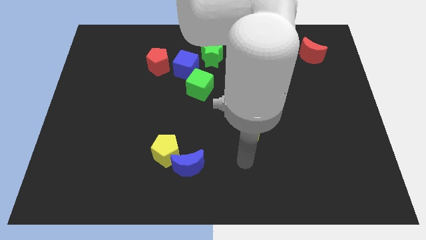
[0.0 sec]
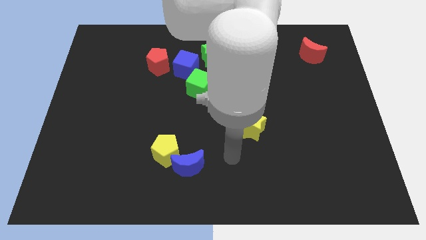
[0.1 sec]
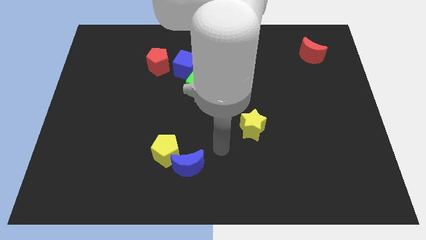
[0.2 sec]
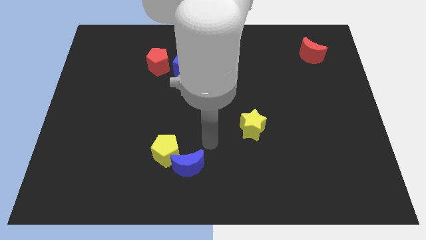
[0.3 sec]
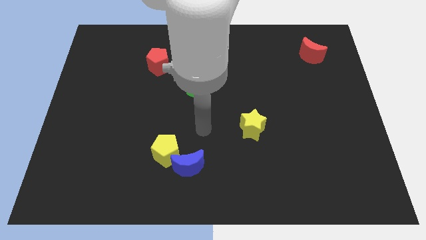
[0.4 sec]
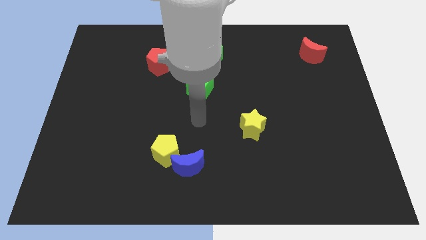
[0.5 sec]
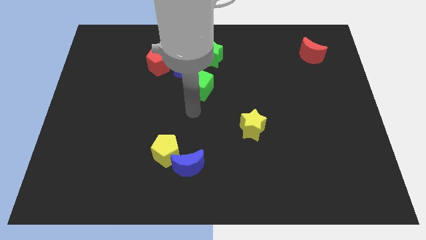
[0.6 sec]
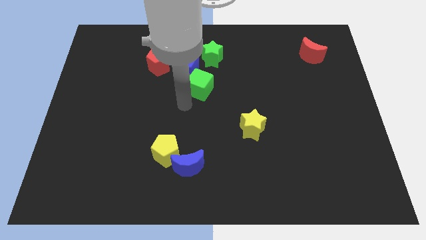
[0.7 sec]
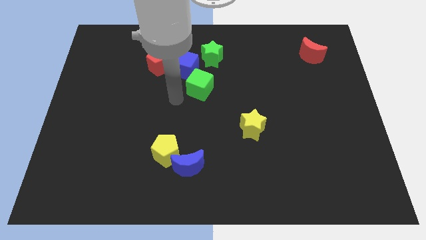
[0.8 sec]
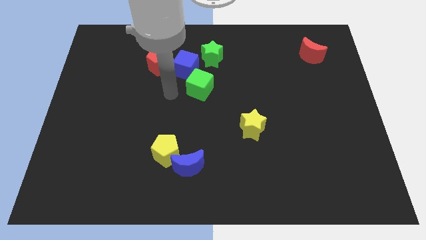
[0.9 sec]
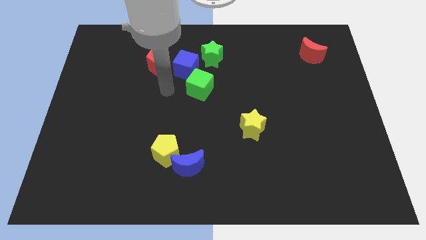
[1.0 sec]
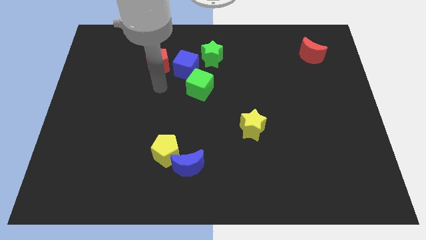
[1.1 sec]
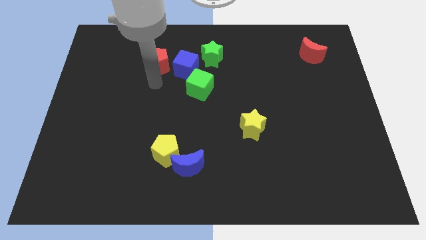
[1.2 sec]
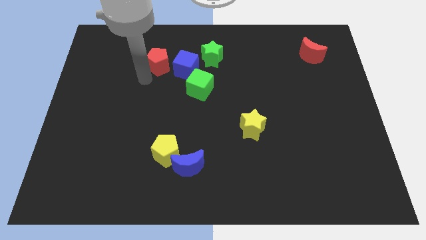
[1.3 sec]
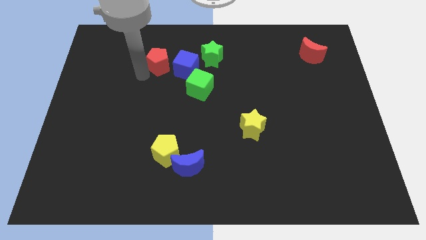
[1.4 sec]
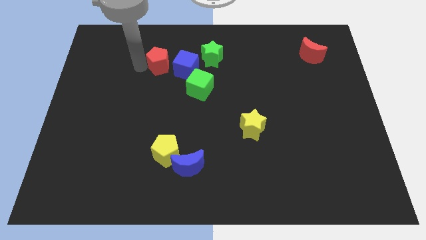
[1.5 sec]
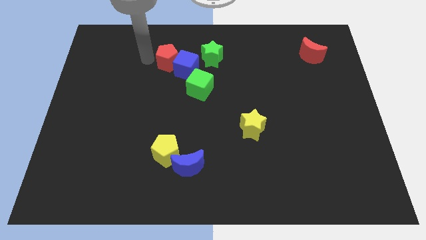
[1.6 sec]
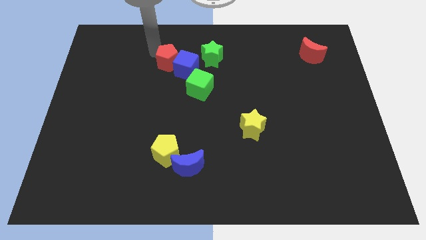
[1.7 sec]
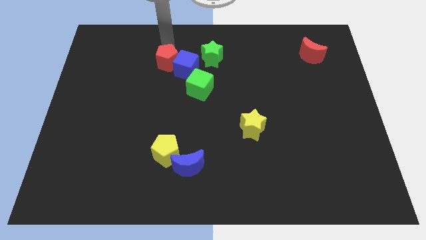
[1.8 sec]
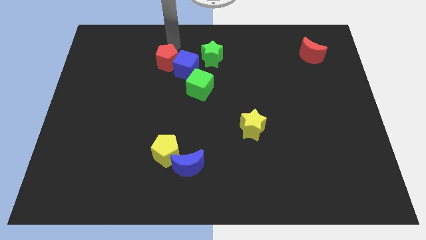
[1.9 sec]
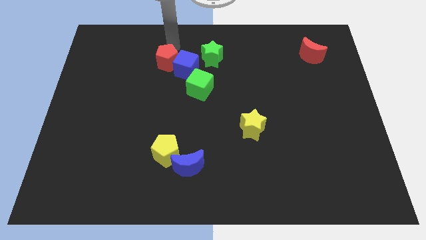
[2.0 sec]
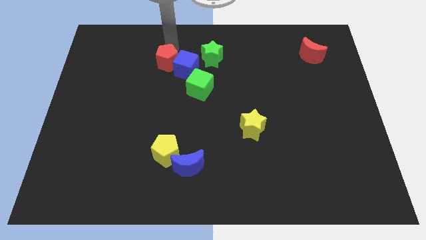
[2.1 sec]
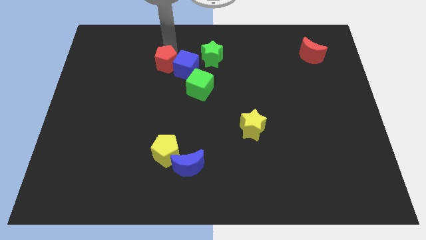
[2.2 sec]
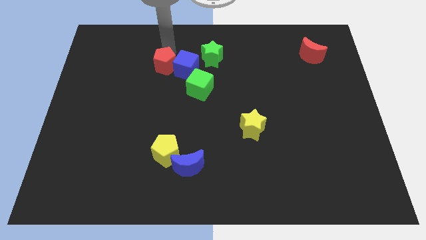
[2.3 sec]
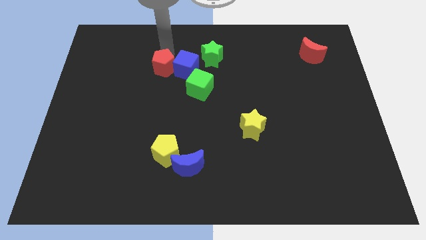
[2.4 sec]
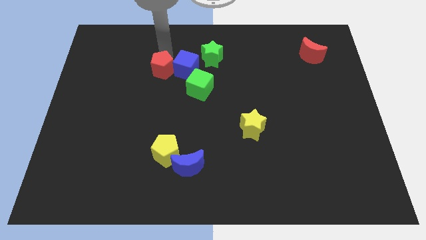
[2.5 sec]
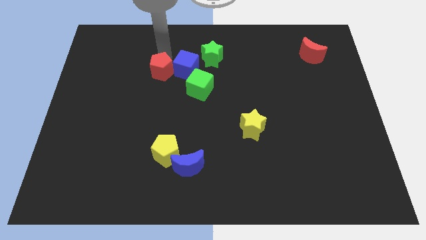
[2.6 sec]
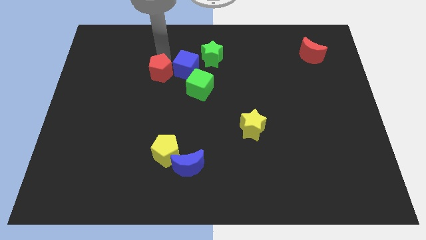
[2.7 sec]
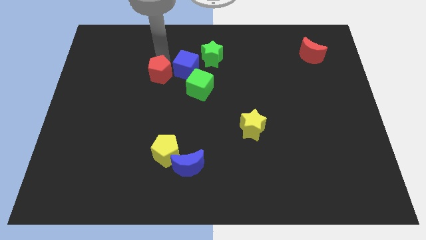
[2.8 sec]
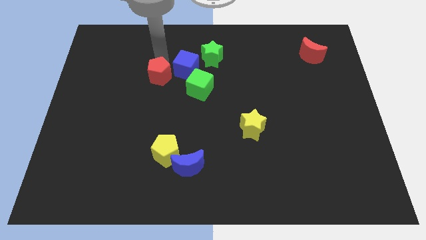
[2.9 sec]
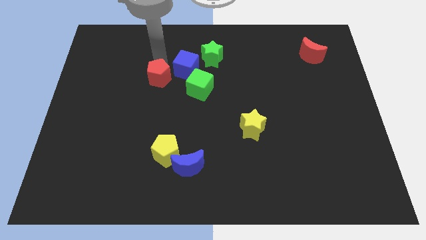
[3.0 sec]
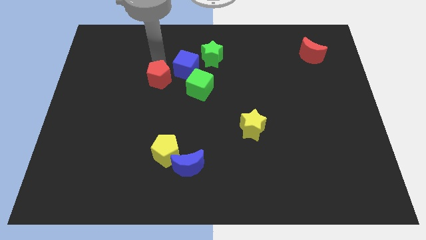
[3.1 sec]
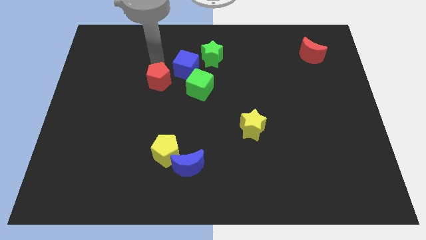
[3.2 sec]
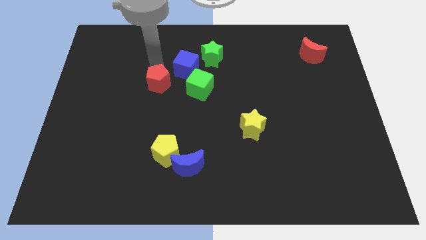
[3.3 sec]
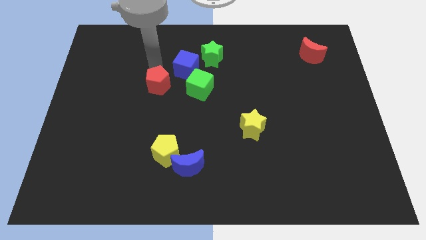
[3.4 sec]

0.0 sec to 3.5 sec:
move the red pentagon somewhat downwards

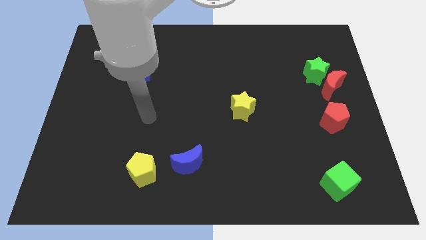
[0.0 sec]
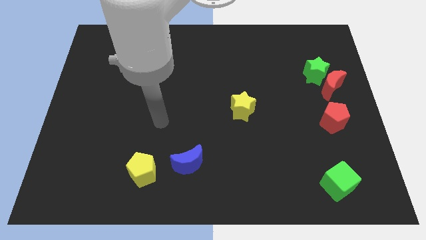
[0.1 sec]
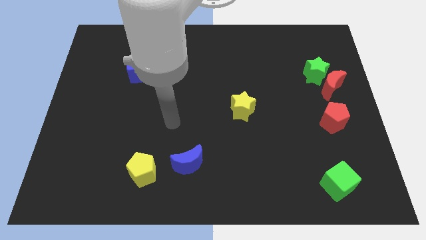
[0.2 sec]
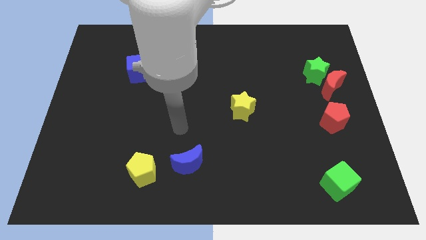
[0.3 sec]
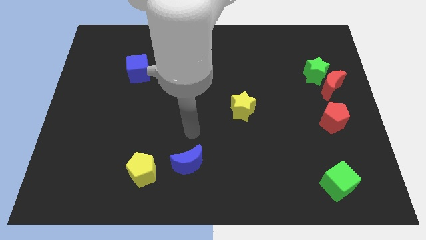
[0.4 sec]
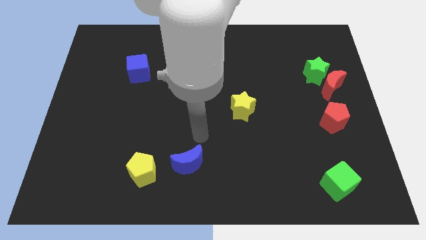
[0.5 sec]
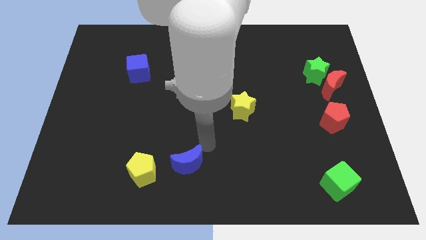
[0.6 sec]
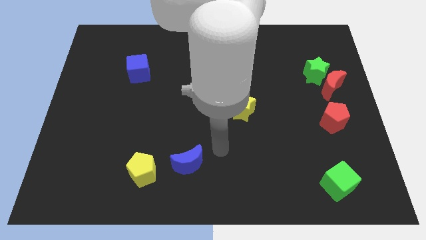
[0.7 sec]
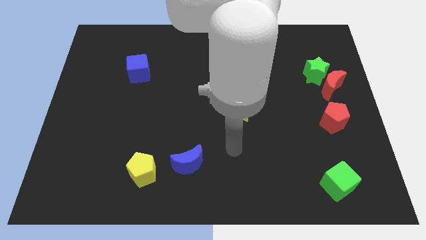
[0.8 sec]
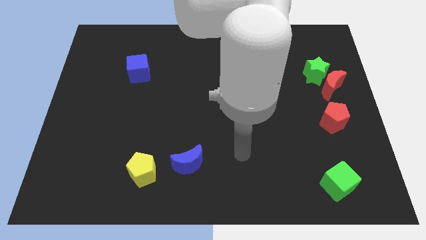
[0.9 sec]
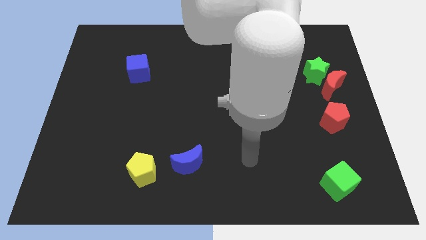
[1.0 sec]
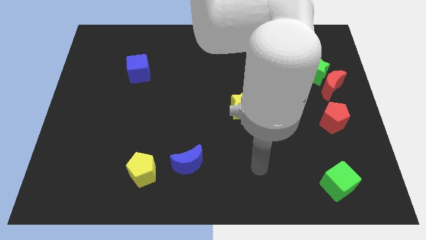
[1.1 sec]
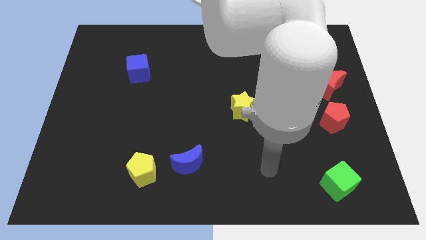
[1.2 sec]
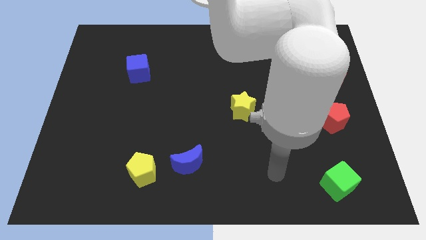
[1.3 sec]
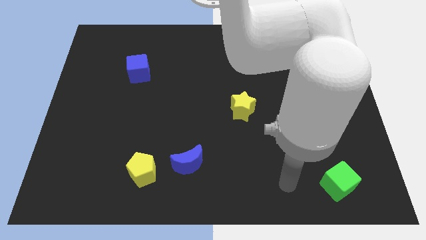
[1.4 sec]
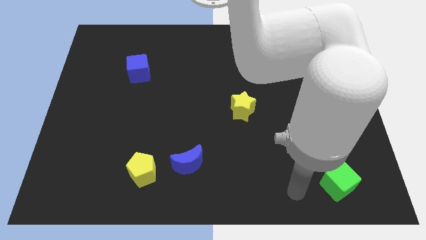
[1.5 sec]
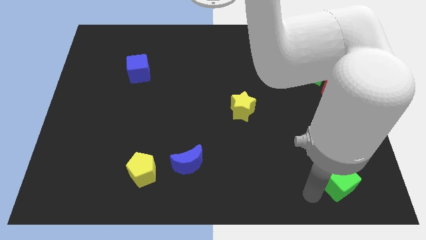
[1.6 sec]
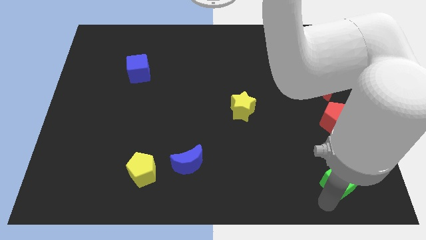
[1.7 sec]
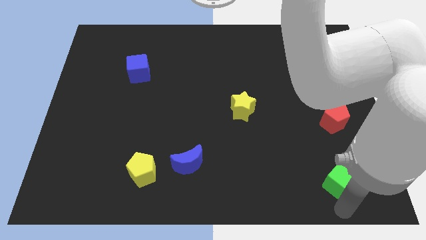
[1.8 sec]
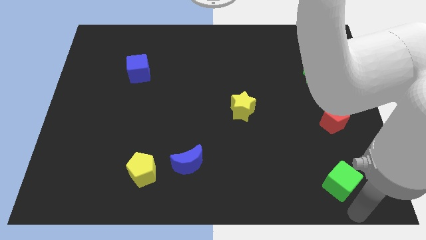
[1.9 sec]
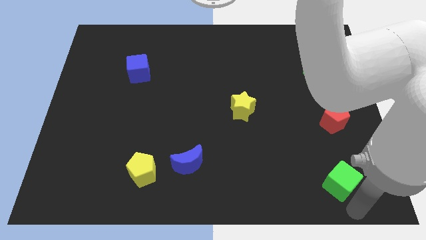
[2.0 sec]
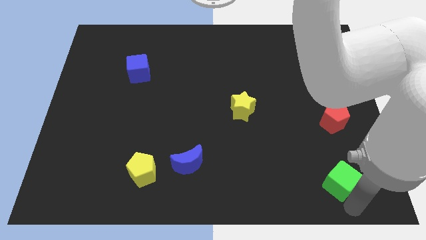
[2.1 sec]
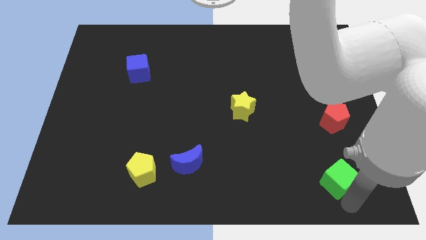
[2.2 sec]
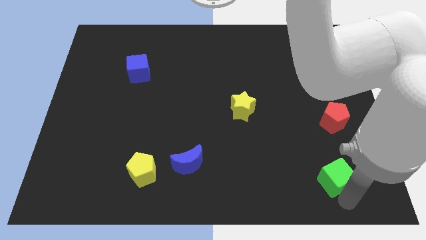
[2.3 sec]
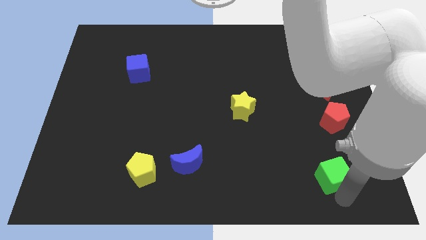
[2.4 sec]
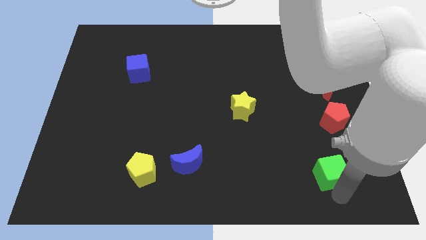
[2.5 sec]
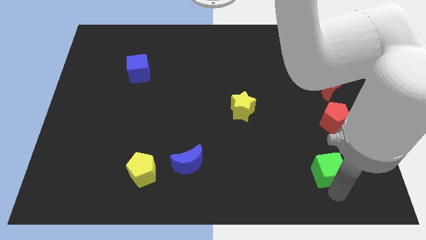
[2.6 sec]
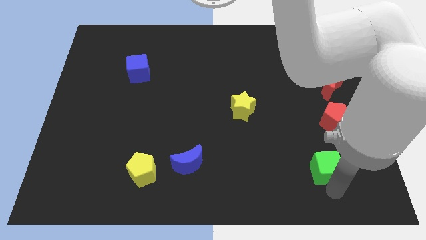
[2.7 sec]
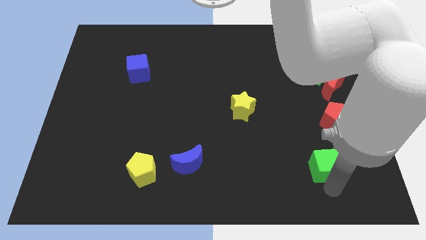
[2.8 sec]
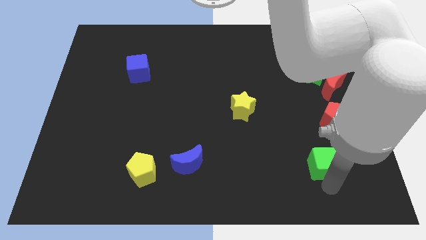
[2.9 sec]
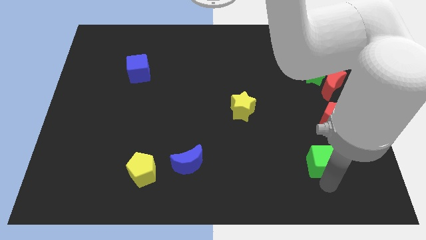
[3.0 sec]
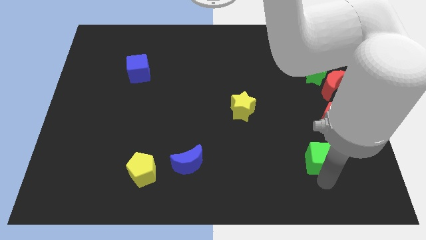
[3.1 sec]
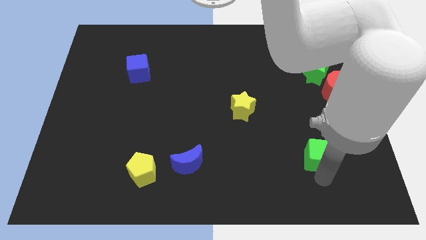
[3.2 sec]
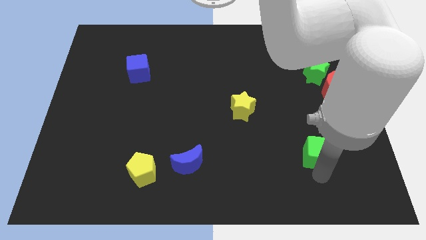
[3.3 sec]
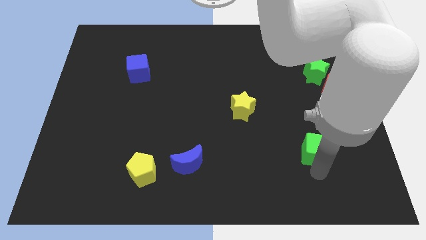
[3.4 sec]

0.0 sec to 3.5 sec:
push the green cube somewhat upwards

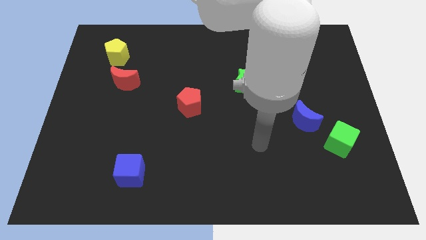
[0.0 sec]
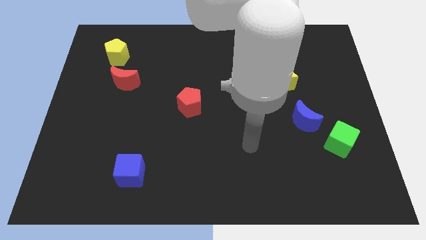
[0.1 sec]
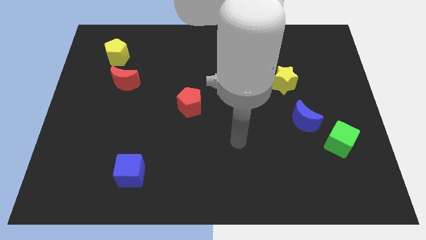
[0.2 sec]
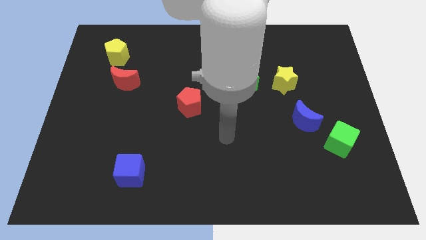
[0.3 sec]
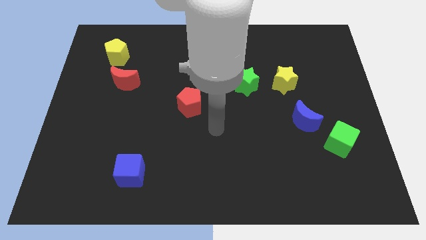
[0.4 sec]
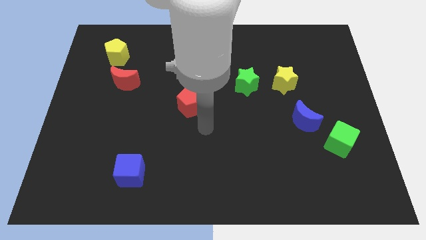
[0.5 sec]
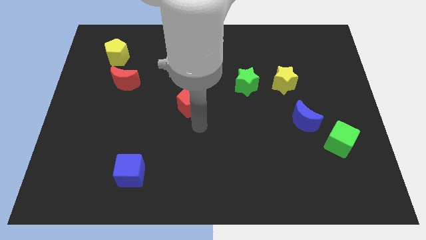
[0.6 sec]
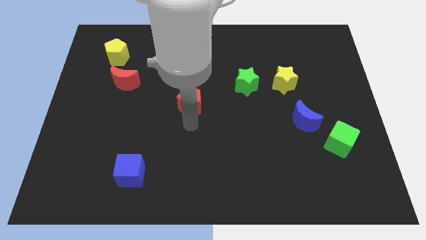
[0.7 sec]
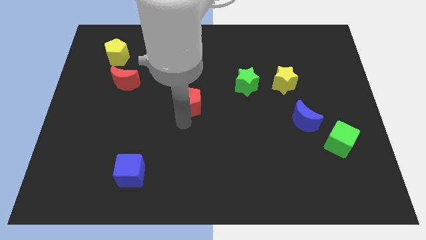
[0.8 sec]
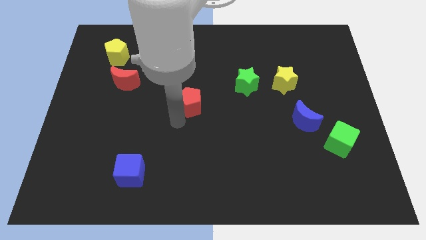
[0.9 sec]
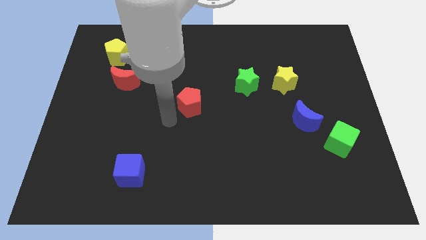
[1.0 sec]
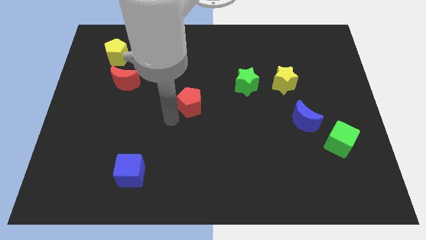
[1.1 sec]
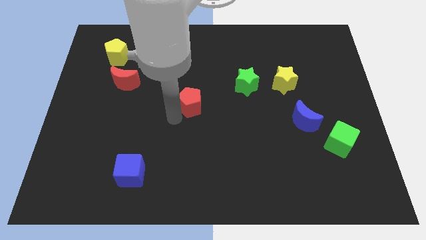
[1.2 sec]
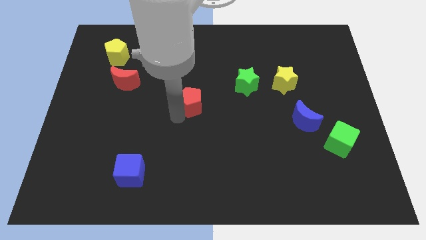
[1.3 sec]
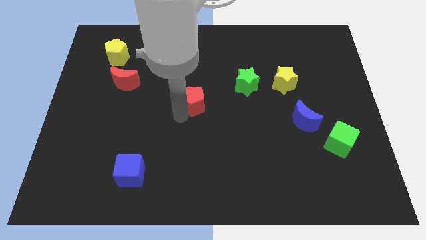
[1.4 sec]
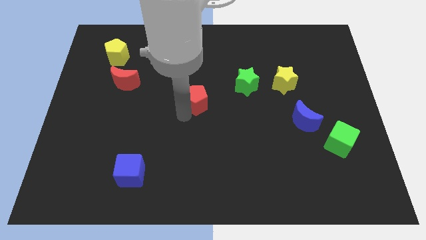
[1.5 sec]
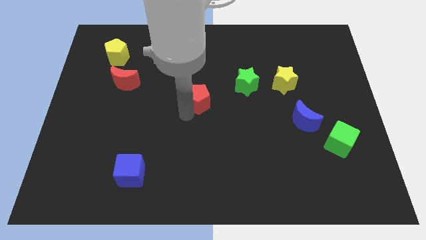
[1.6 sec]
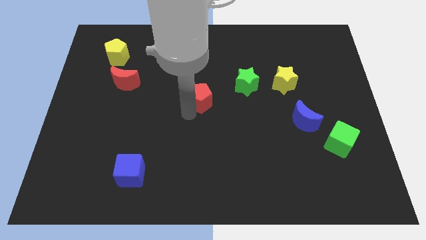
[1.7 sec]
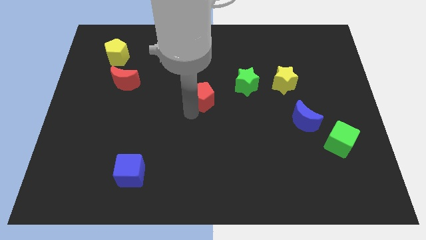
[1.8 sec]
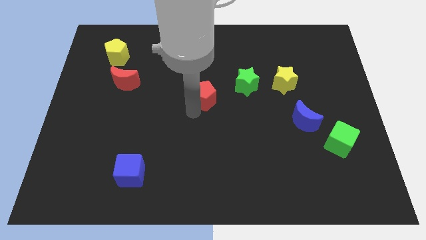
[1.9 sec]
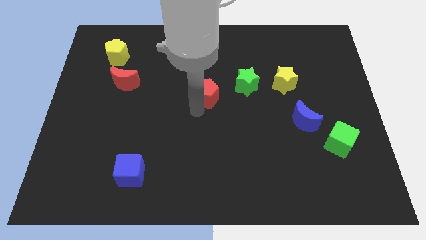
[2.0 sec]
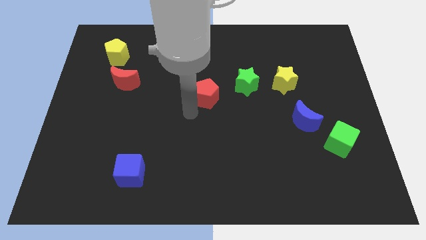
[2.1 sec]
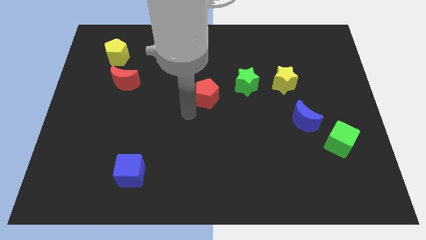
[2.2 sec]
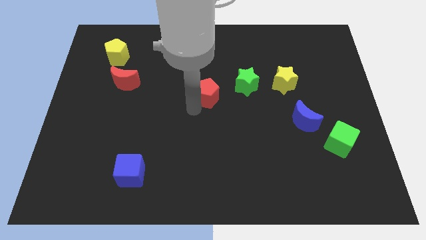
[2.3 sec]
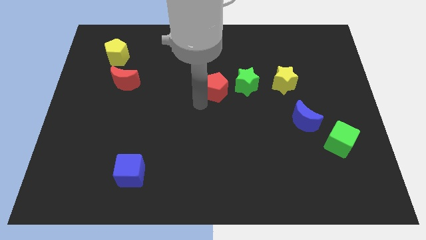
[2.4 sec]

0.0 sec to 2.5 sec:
slide the red pentagon upwards and right diagonally a bit
